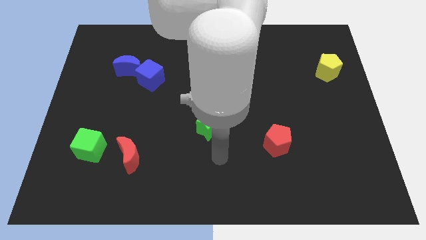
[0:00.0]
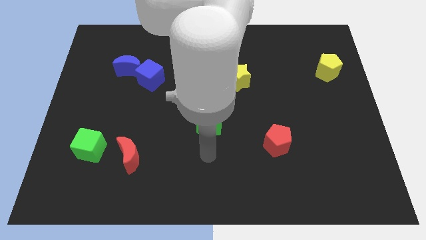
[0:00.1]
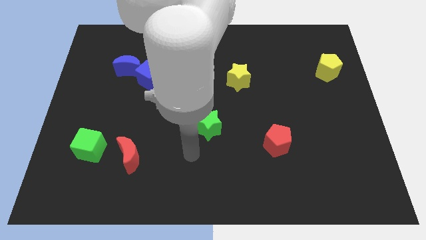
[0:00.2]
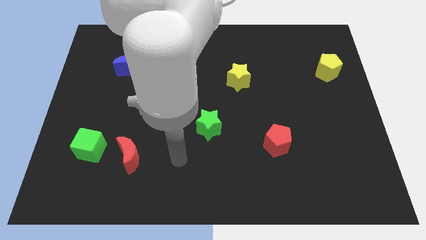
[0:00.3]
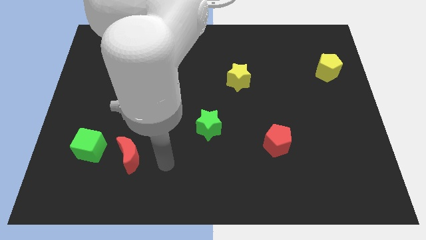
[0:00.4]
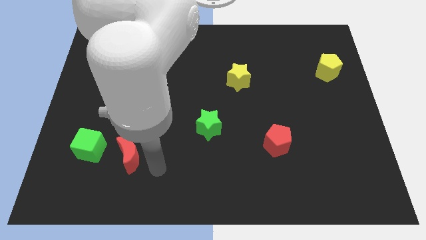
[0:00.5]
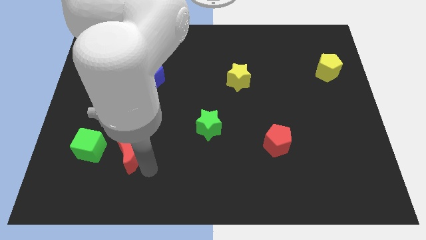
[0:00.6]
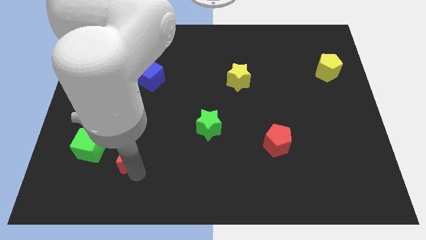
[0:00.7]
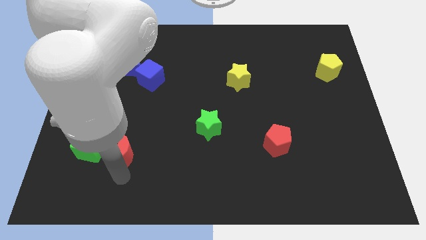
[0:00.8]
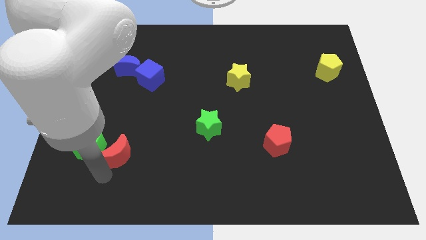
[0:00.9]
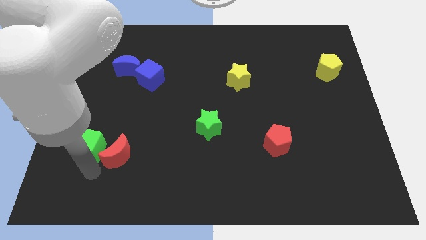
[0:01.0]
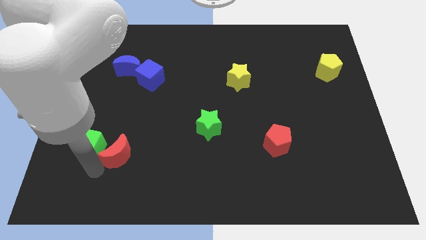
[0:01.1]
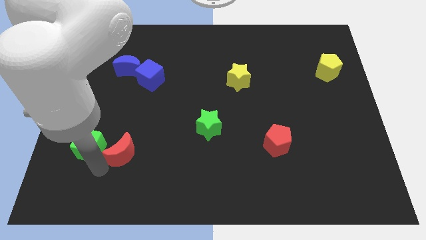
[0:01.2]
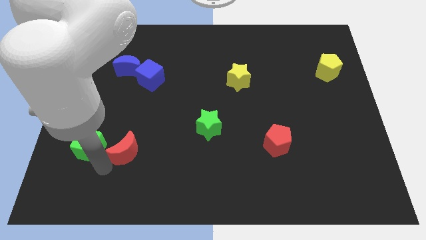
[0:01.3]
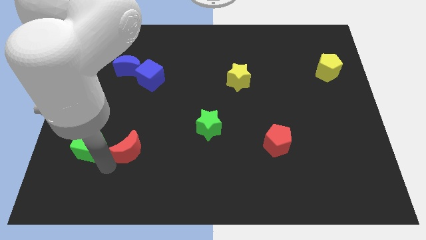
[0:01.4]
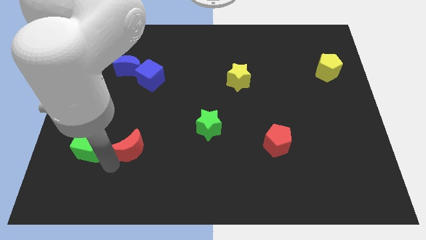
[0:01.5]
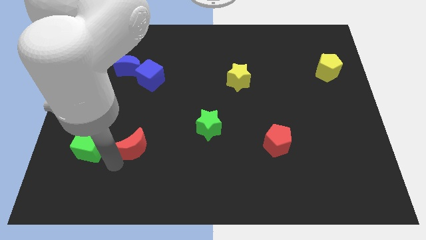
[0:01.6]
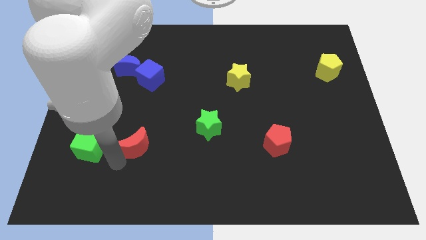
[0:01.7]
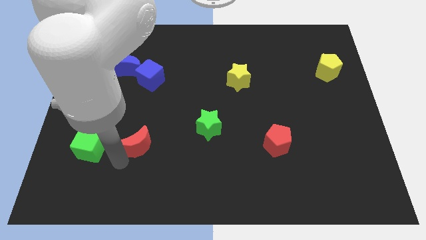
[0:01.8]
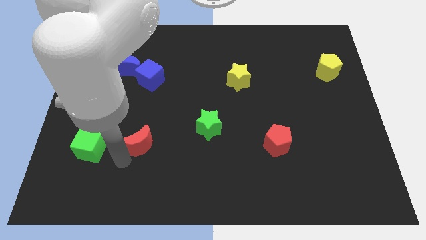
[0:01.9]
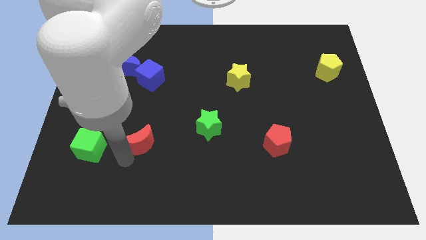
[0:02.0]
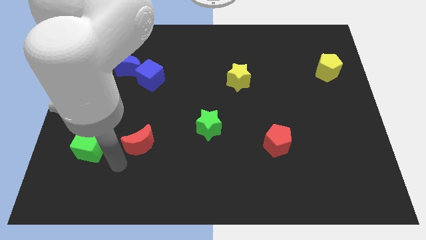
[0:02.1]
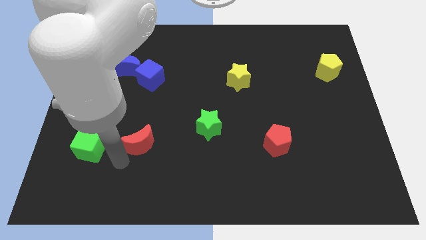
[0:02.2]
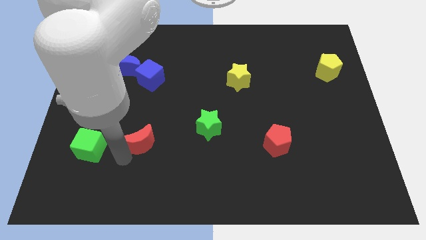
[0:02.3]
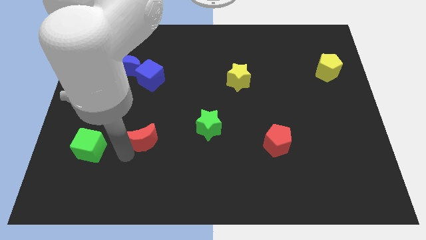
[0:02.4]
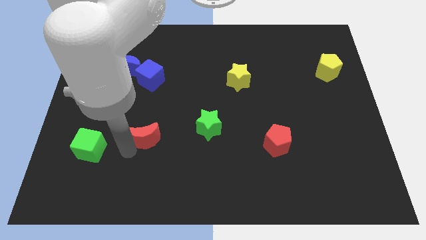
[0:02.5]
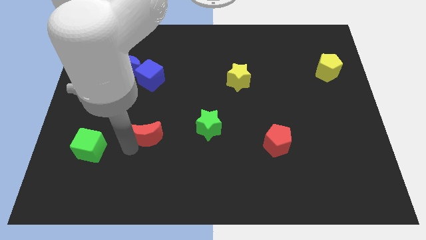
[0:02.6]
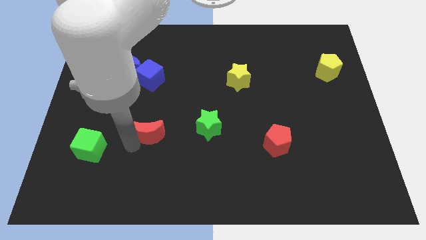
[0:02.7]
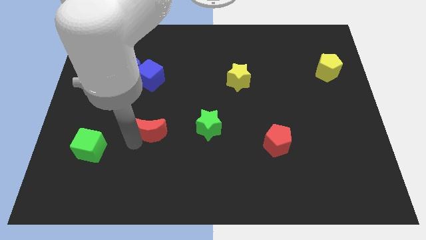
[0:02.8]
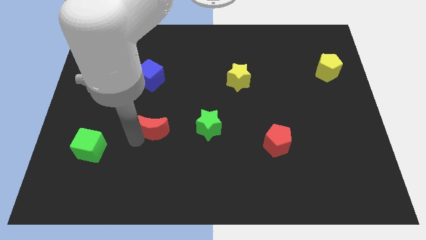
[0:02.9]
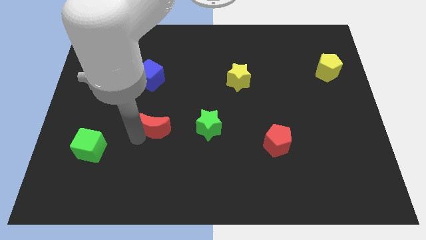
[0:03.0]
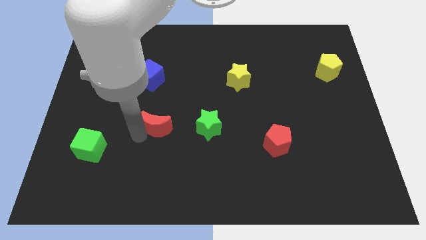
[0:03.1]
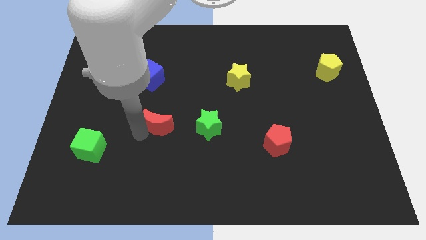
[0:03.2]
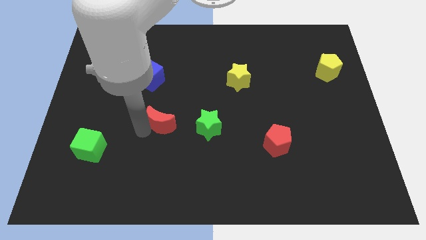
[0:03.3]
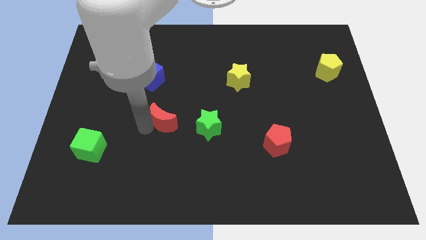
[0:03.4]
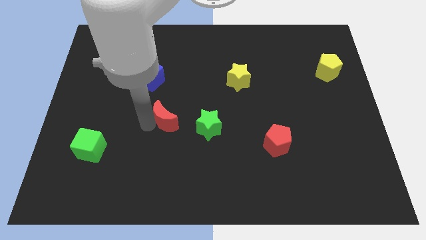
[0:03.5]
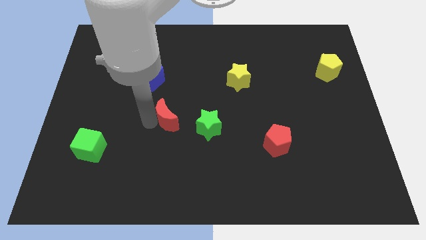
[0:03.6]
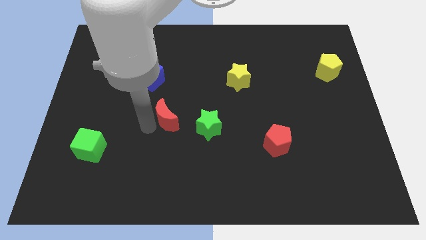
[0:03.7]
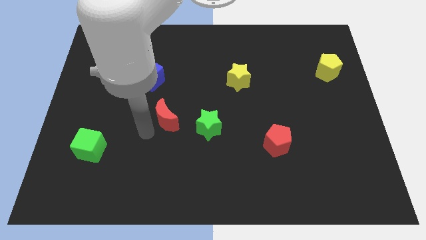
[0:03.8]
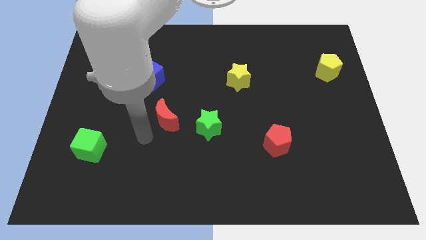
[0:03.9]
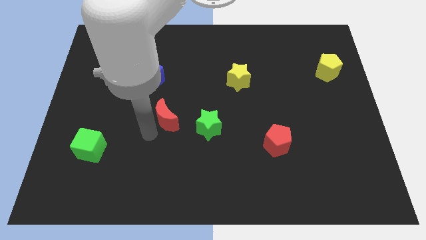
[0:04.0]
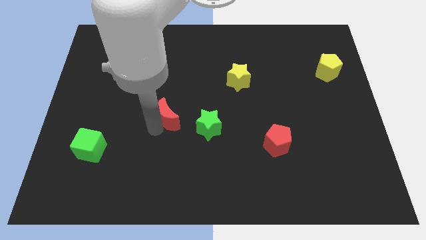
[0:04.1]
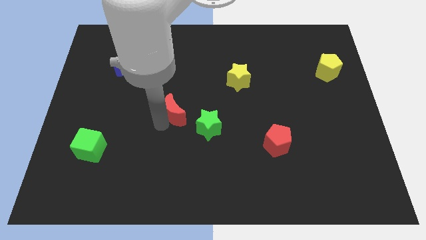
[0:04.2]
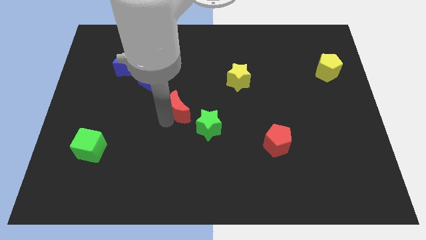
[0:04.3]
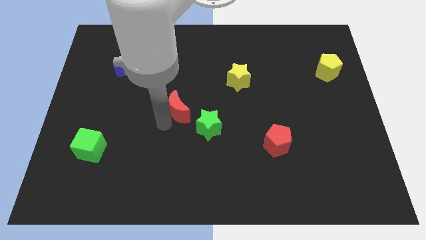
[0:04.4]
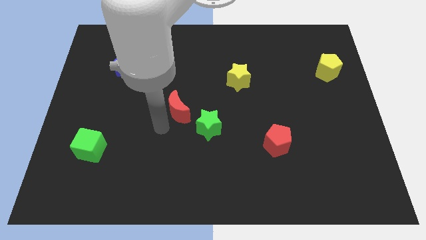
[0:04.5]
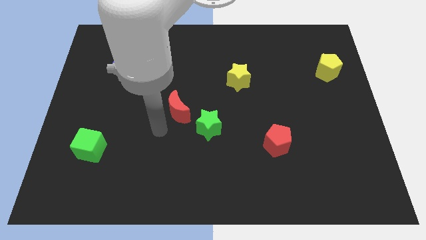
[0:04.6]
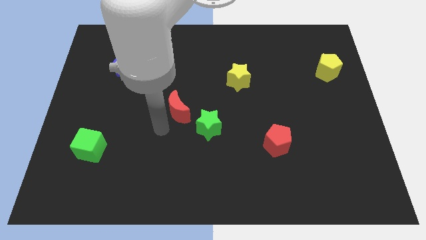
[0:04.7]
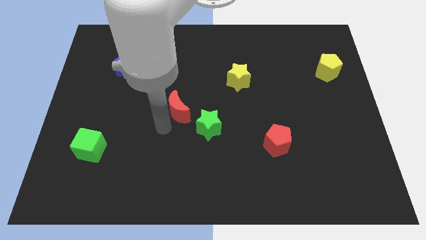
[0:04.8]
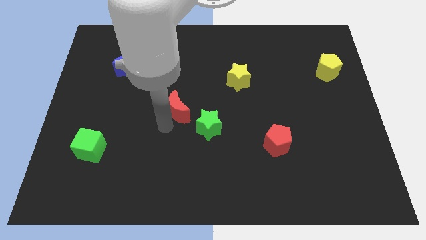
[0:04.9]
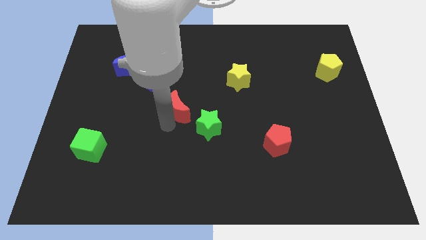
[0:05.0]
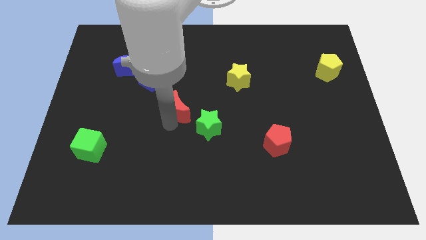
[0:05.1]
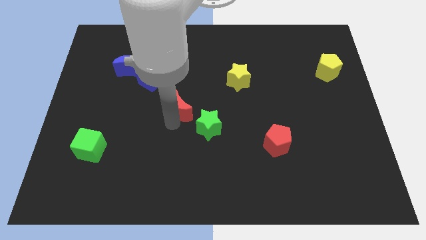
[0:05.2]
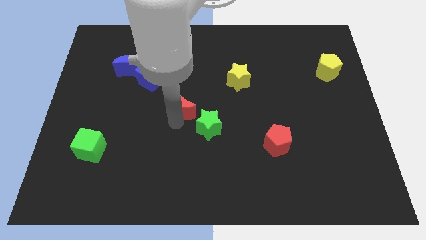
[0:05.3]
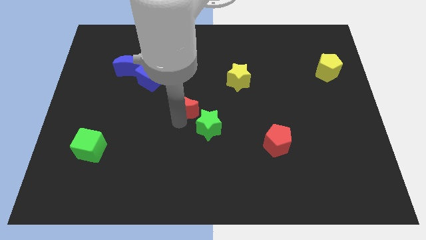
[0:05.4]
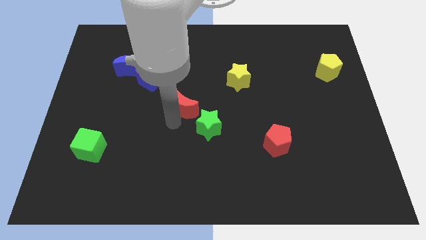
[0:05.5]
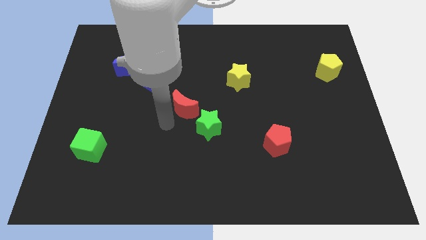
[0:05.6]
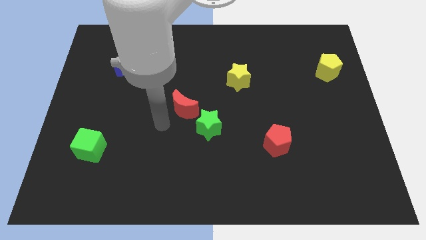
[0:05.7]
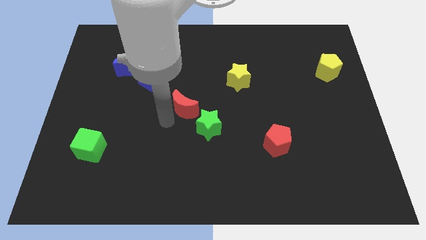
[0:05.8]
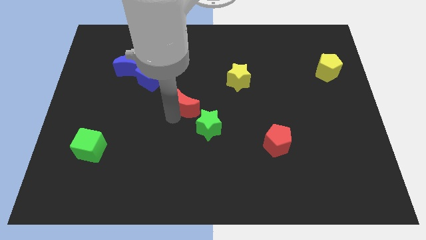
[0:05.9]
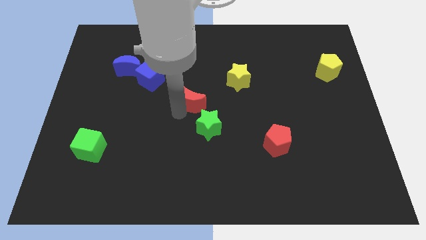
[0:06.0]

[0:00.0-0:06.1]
slide the red moon to the top side of the green star

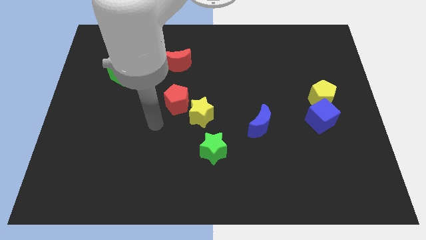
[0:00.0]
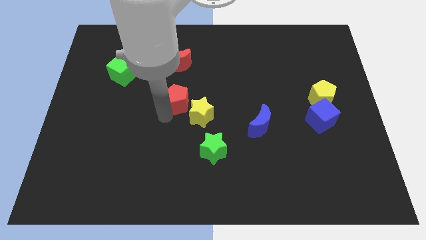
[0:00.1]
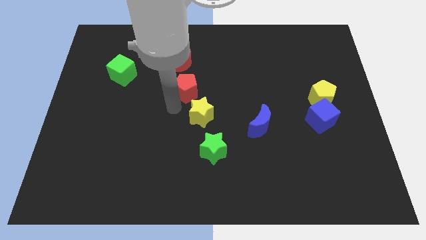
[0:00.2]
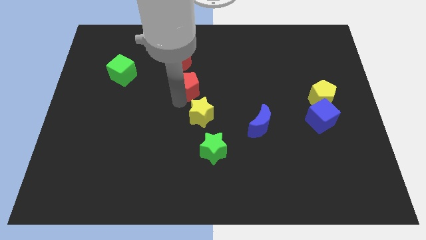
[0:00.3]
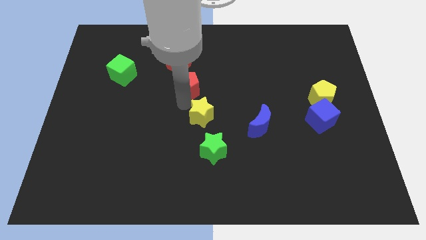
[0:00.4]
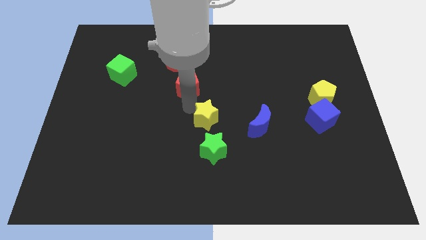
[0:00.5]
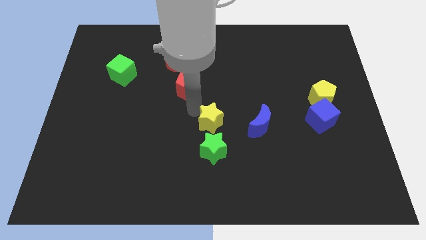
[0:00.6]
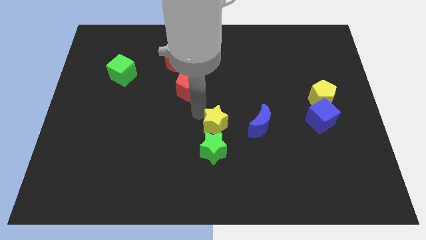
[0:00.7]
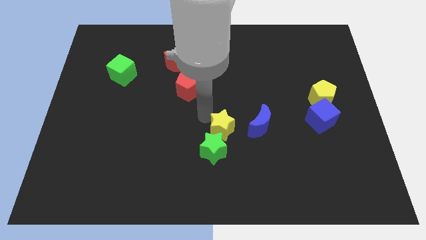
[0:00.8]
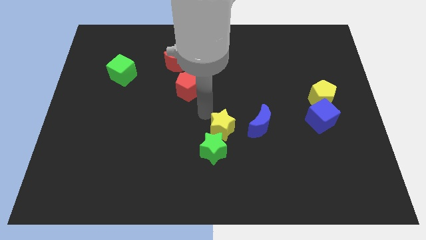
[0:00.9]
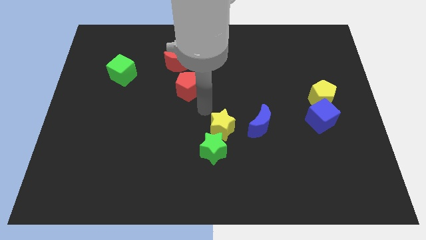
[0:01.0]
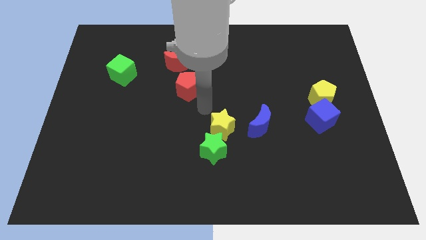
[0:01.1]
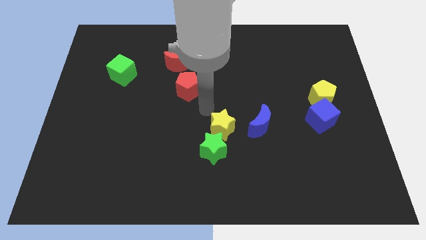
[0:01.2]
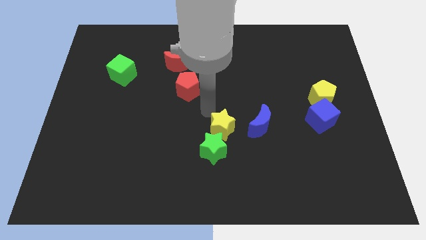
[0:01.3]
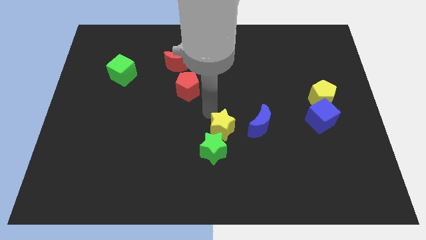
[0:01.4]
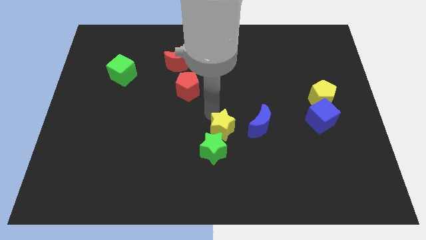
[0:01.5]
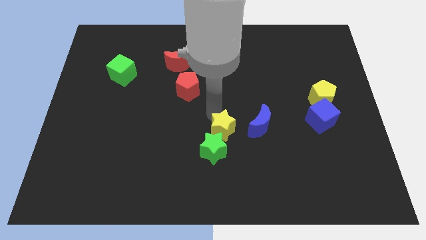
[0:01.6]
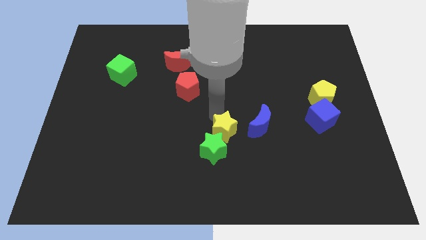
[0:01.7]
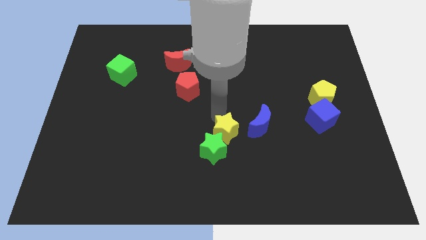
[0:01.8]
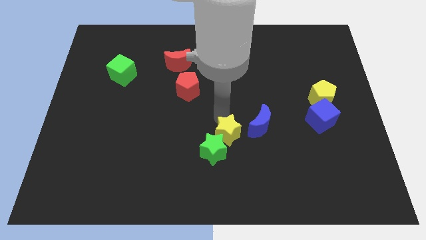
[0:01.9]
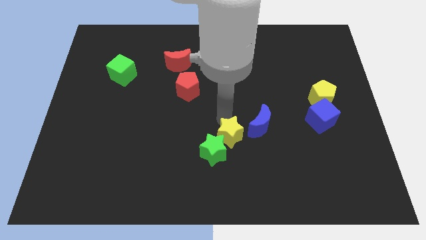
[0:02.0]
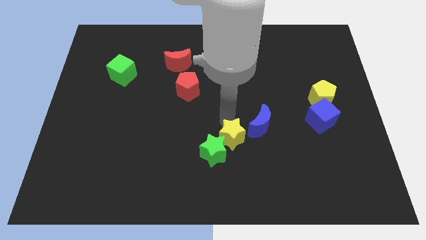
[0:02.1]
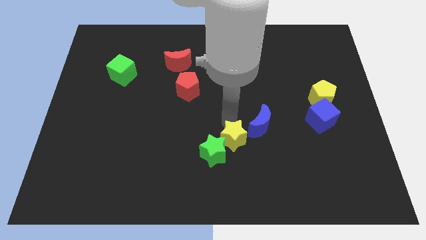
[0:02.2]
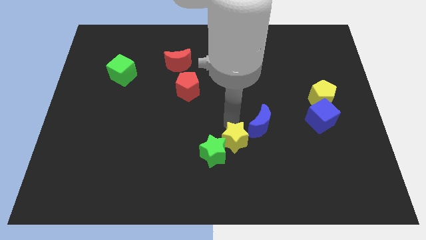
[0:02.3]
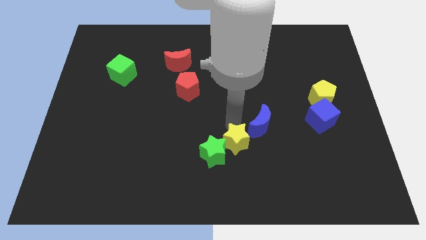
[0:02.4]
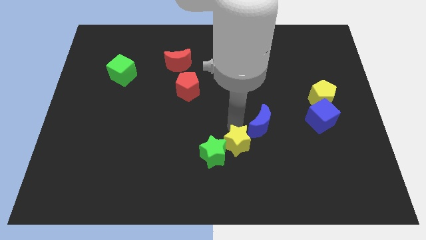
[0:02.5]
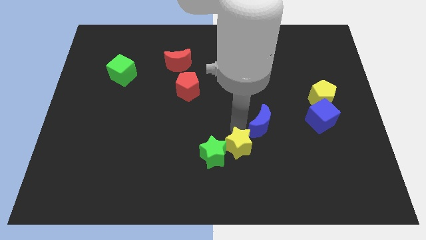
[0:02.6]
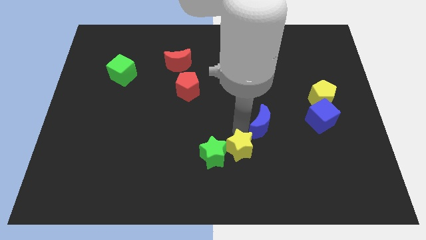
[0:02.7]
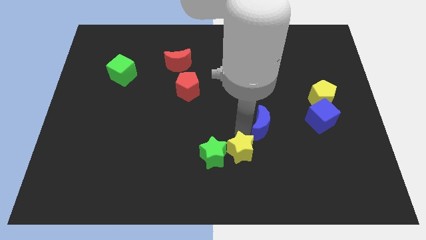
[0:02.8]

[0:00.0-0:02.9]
put the yellow star to the bottom right of the green star
